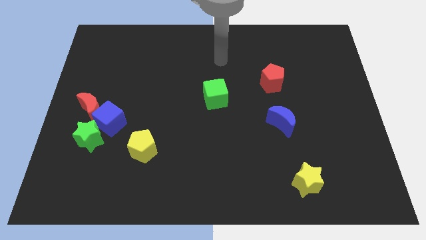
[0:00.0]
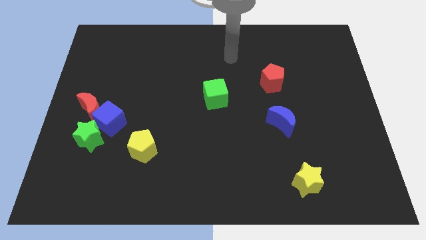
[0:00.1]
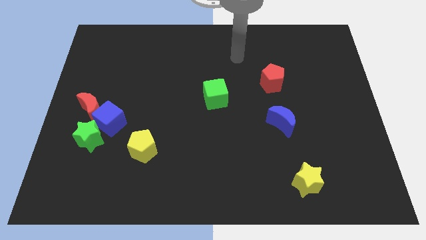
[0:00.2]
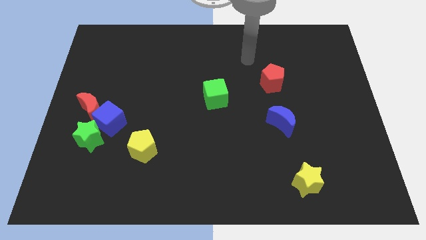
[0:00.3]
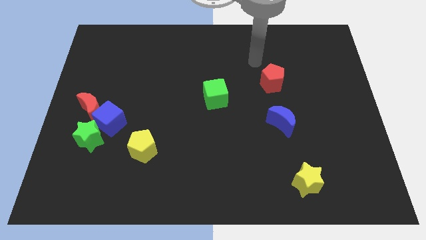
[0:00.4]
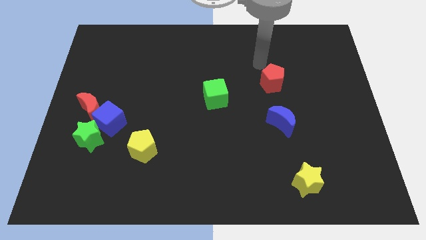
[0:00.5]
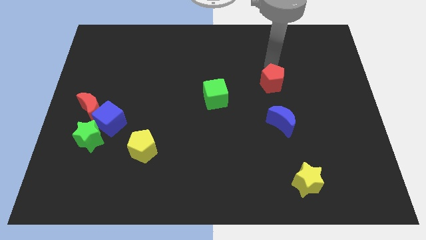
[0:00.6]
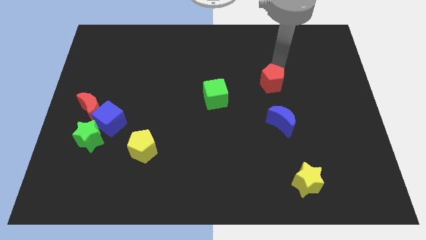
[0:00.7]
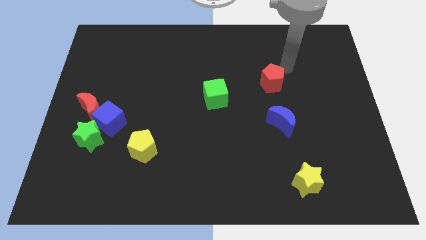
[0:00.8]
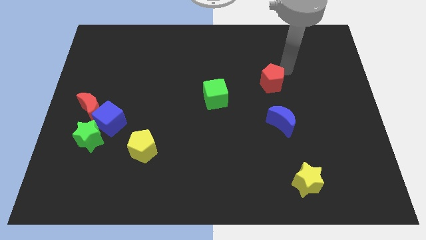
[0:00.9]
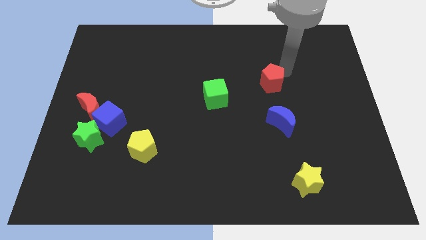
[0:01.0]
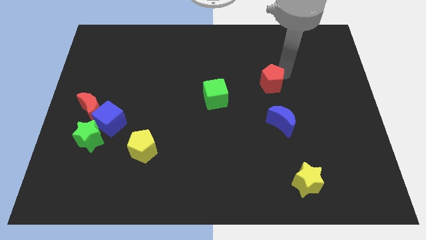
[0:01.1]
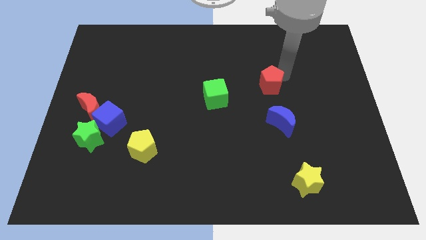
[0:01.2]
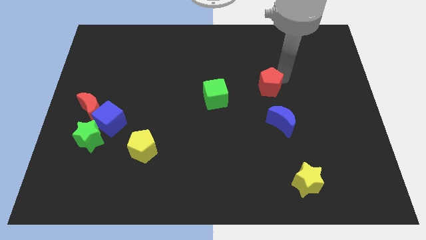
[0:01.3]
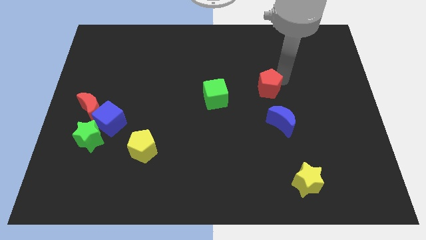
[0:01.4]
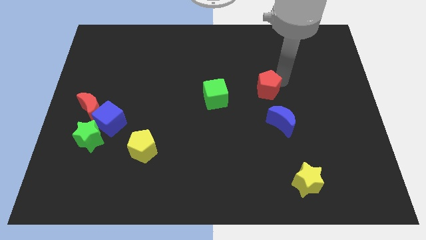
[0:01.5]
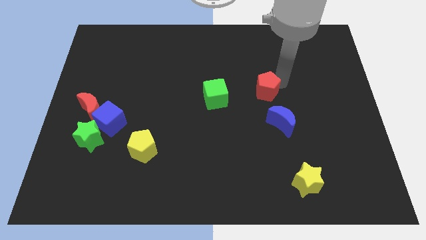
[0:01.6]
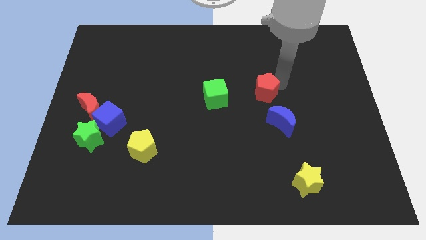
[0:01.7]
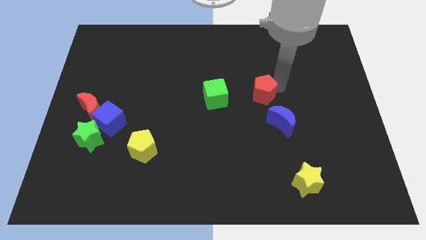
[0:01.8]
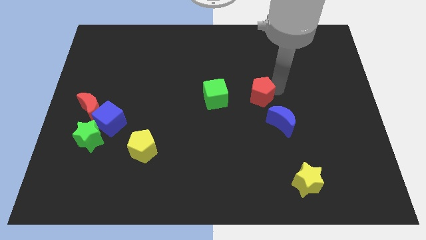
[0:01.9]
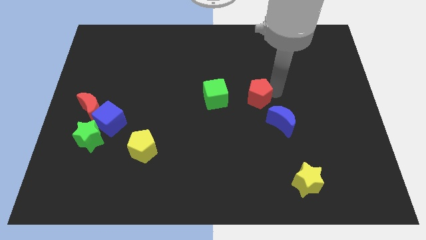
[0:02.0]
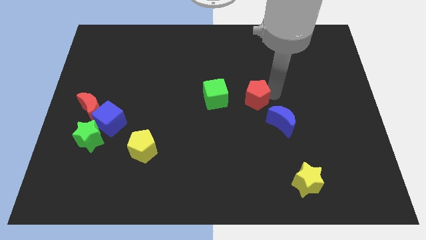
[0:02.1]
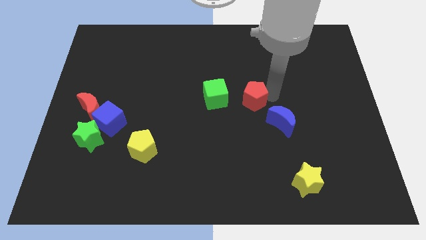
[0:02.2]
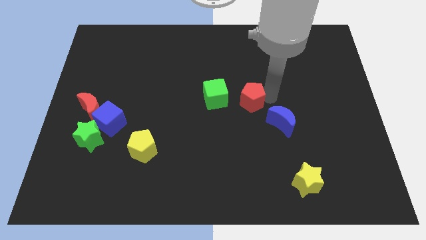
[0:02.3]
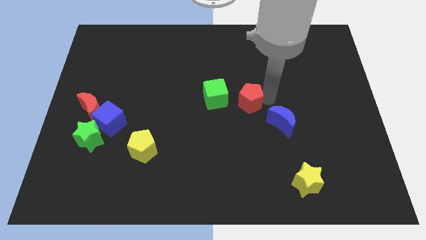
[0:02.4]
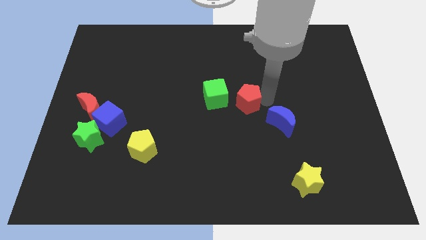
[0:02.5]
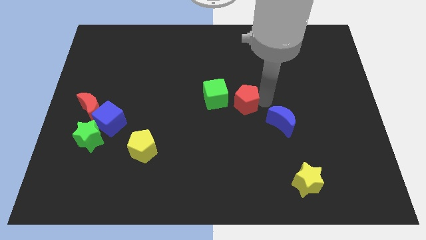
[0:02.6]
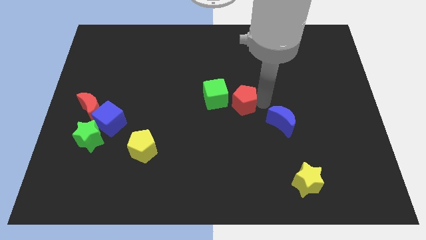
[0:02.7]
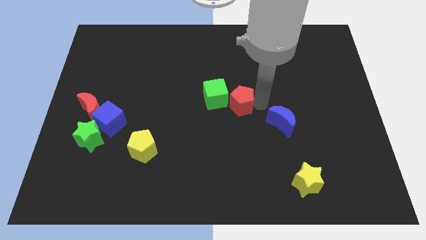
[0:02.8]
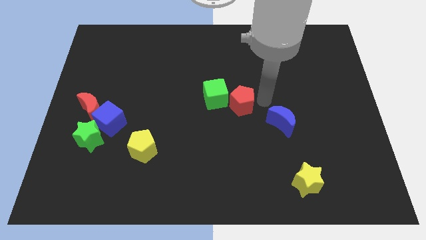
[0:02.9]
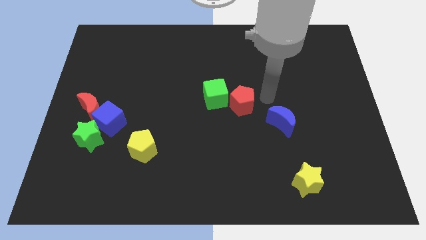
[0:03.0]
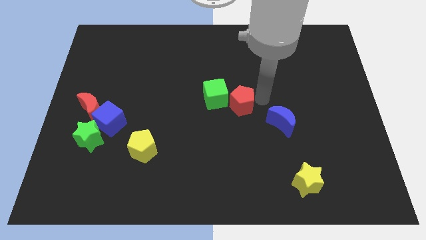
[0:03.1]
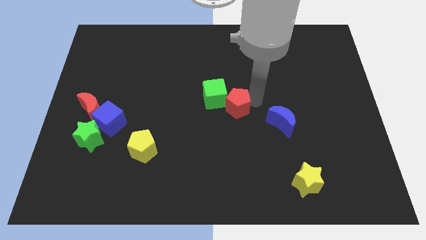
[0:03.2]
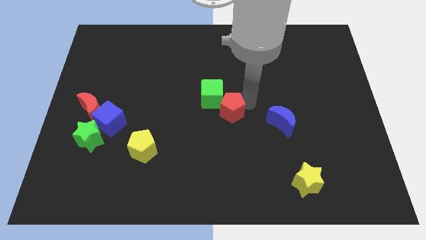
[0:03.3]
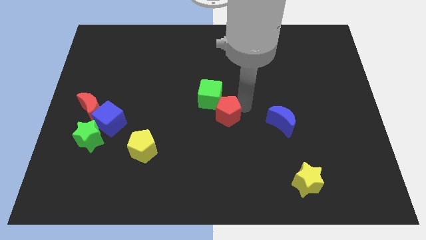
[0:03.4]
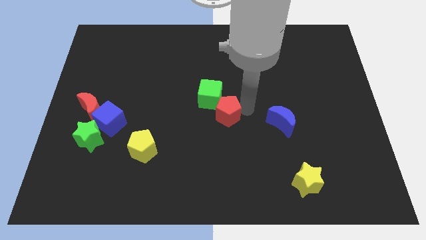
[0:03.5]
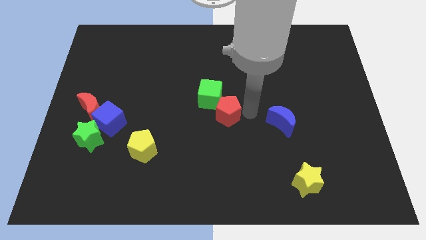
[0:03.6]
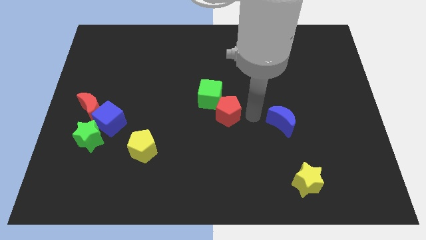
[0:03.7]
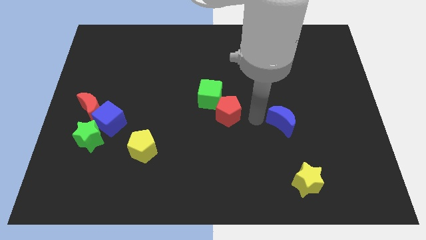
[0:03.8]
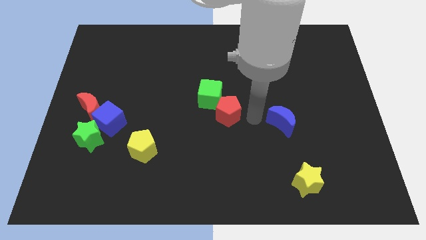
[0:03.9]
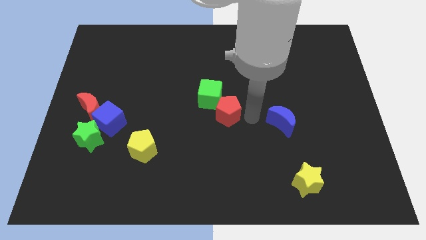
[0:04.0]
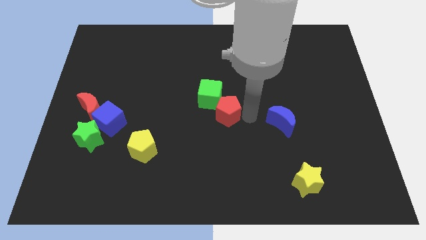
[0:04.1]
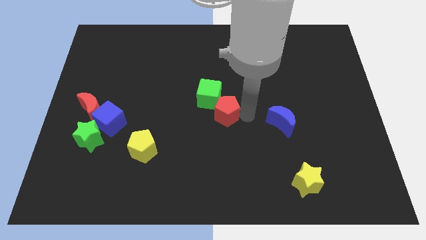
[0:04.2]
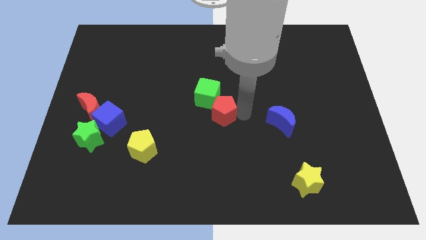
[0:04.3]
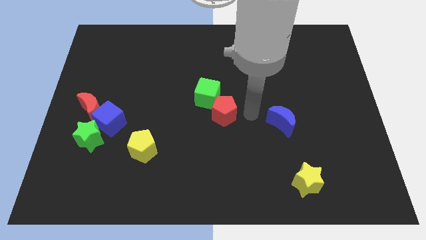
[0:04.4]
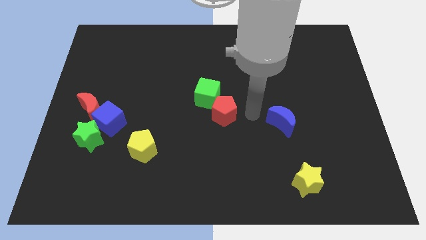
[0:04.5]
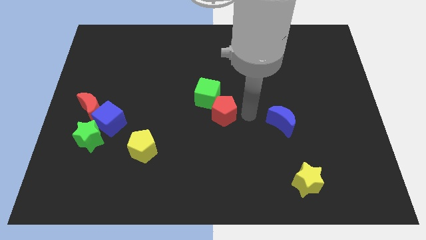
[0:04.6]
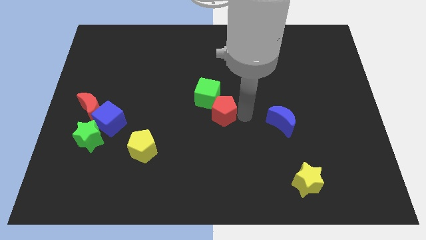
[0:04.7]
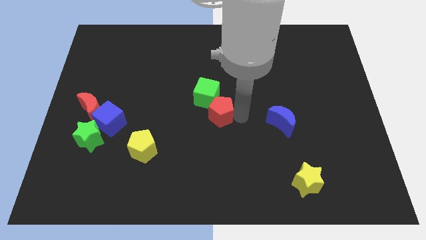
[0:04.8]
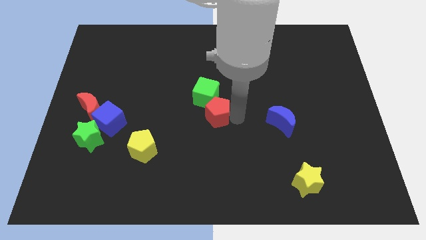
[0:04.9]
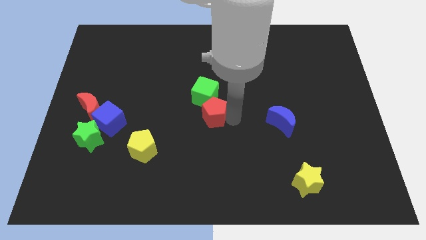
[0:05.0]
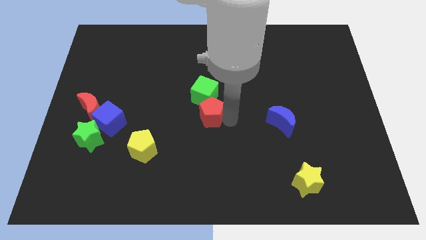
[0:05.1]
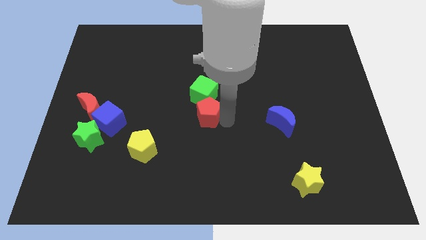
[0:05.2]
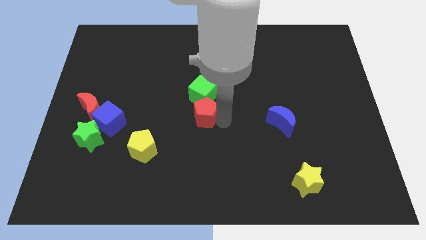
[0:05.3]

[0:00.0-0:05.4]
slide the red pentagon to the bottom left side of the green cube

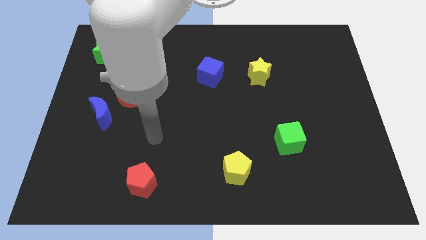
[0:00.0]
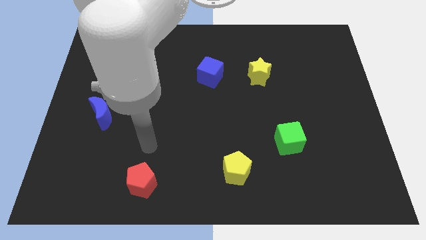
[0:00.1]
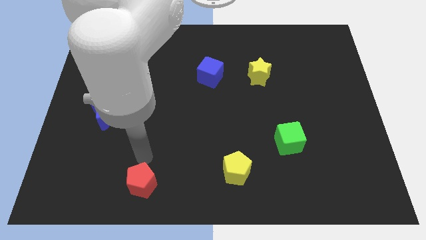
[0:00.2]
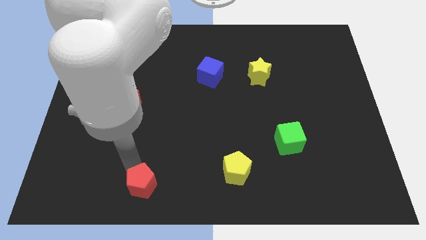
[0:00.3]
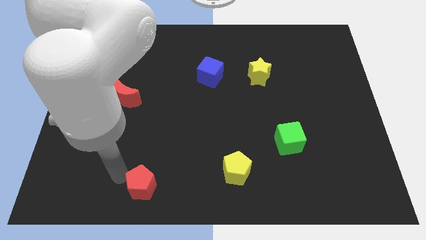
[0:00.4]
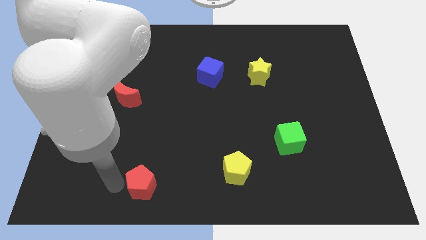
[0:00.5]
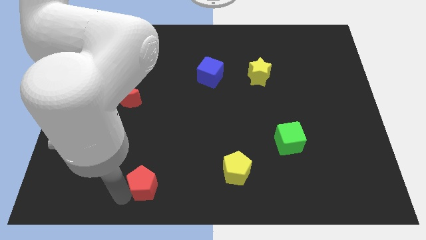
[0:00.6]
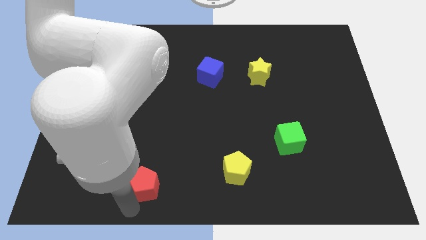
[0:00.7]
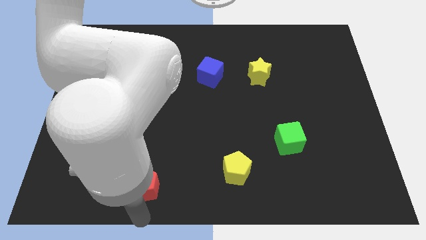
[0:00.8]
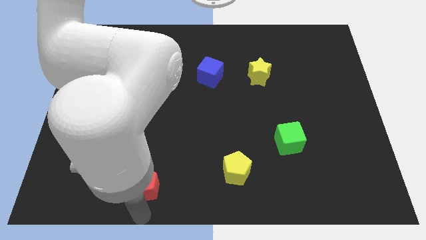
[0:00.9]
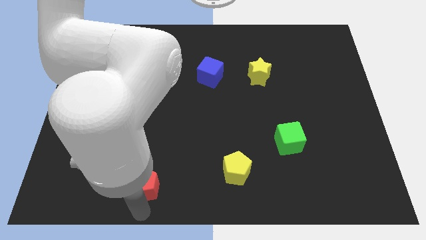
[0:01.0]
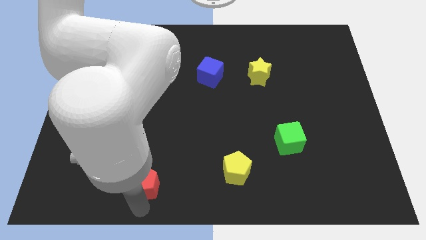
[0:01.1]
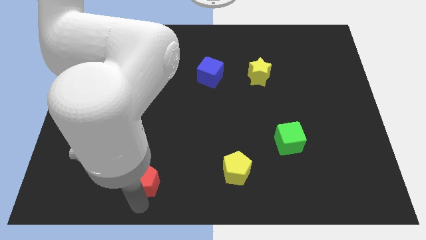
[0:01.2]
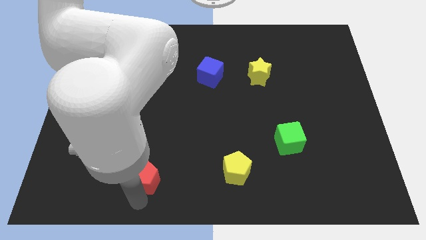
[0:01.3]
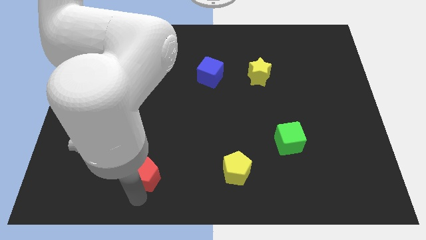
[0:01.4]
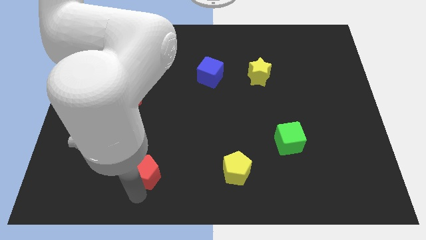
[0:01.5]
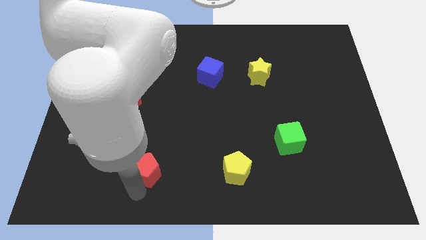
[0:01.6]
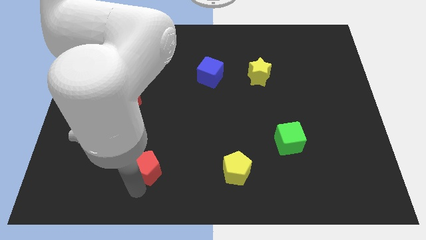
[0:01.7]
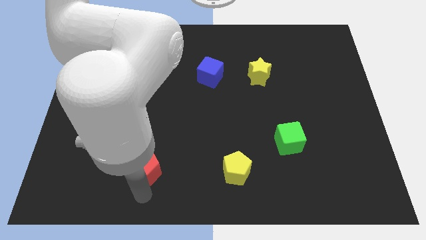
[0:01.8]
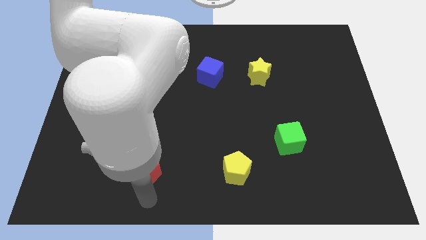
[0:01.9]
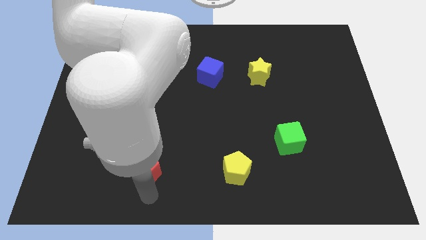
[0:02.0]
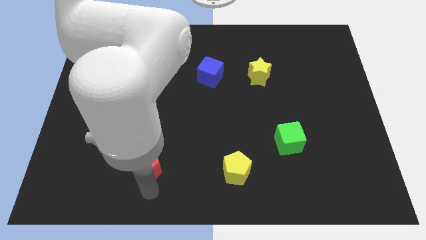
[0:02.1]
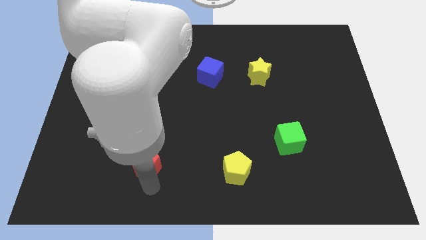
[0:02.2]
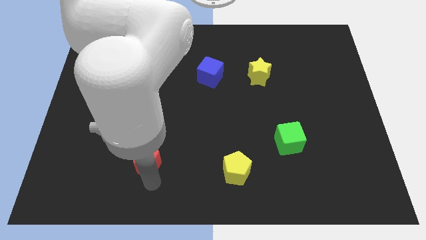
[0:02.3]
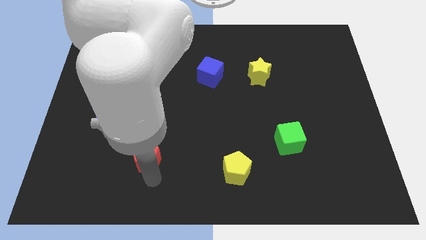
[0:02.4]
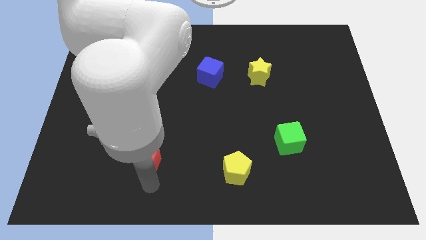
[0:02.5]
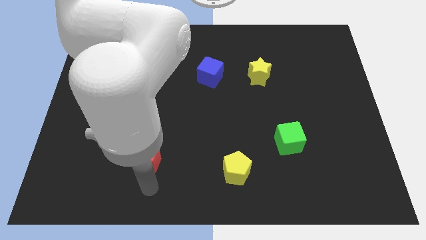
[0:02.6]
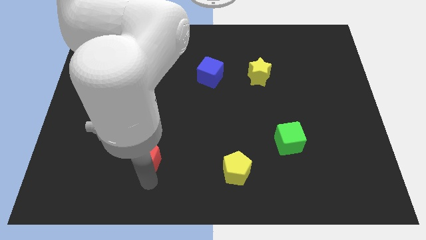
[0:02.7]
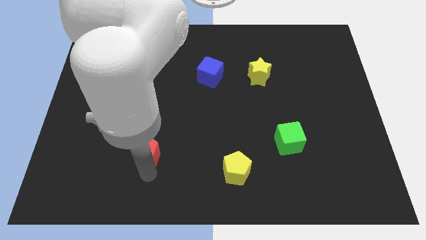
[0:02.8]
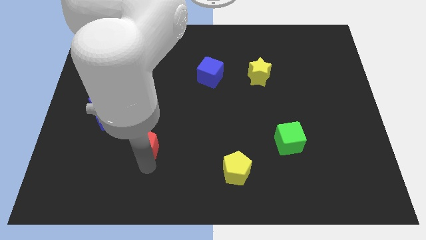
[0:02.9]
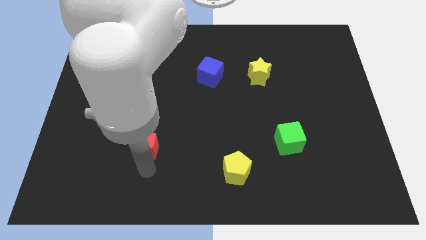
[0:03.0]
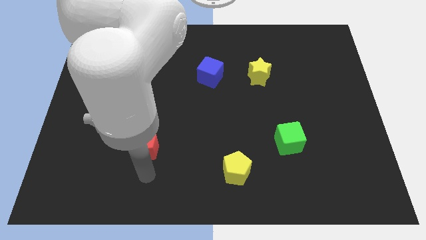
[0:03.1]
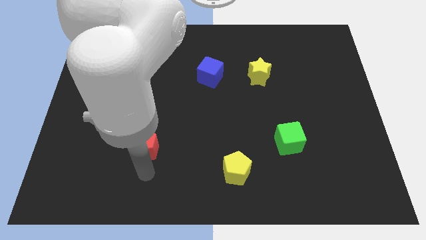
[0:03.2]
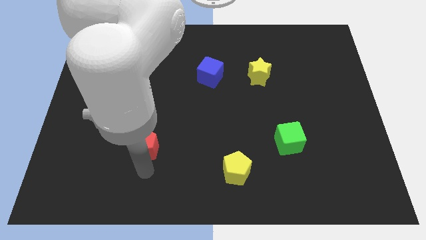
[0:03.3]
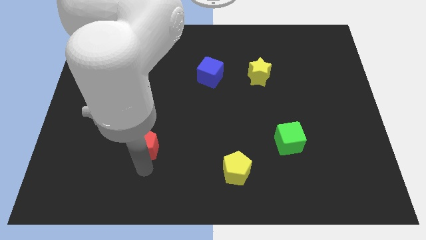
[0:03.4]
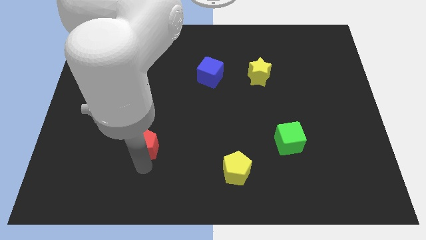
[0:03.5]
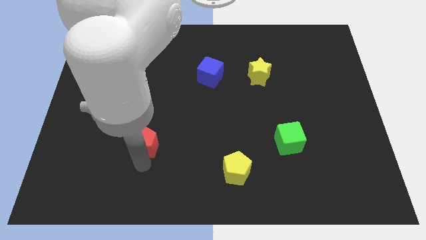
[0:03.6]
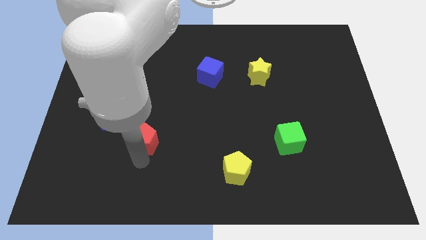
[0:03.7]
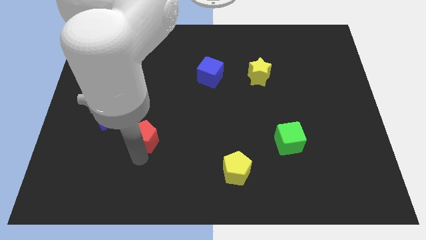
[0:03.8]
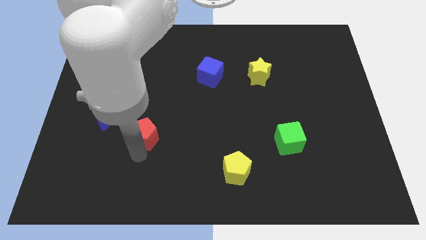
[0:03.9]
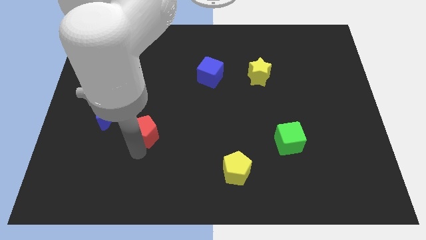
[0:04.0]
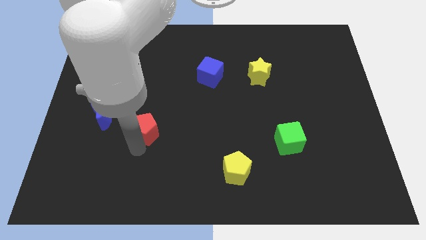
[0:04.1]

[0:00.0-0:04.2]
slide the red pentagon to the right side of the blue moon
